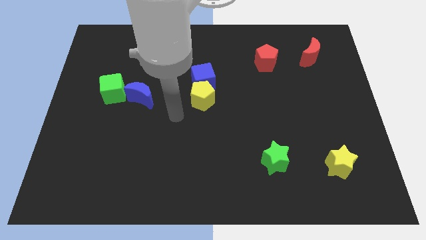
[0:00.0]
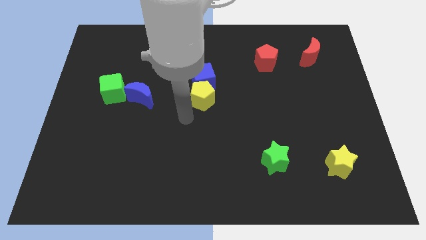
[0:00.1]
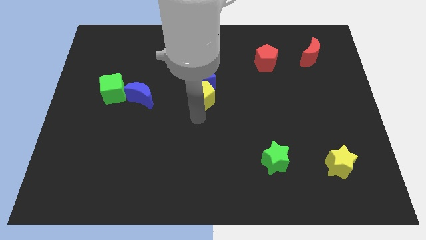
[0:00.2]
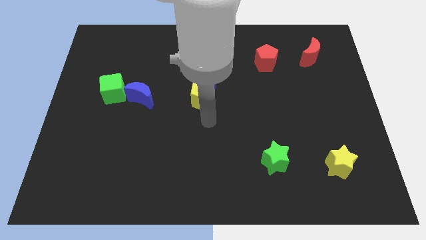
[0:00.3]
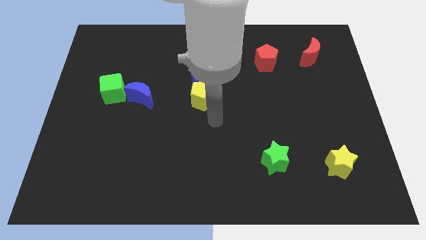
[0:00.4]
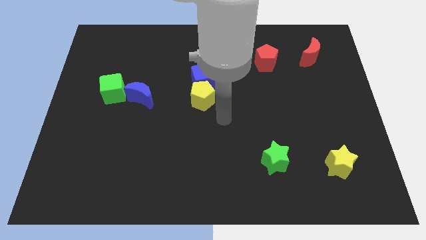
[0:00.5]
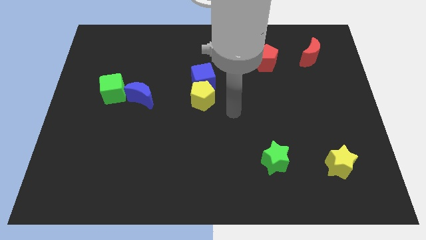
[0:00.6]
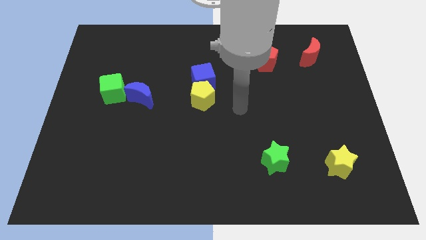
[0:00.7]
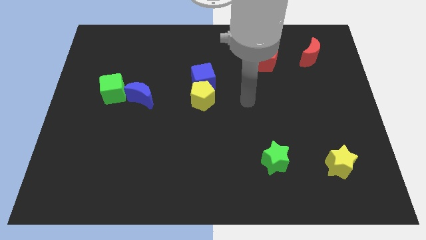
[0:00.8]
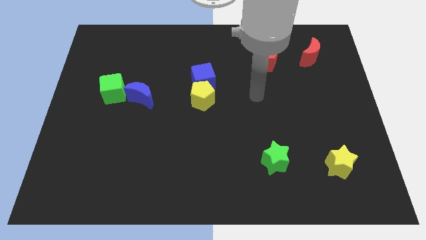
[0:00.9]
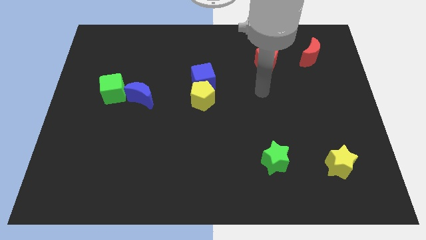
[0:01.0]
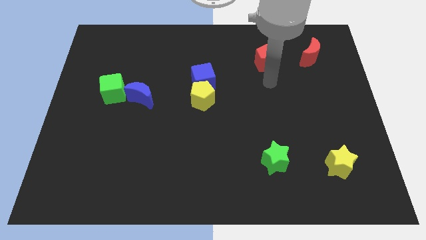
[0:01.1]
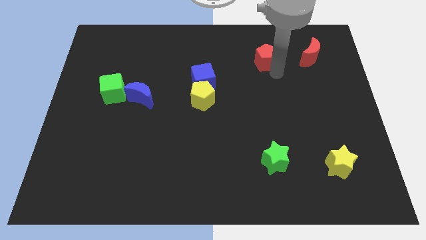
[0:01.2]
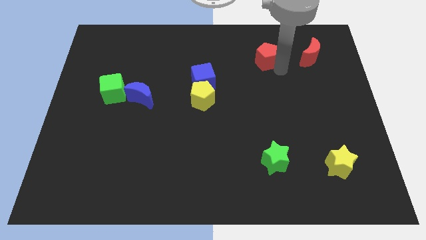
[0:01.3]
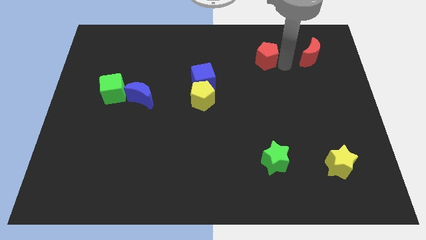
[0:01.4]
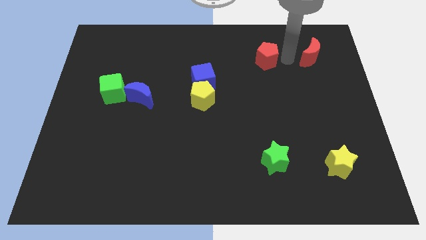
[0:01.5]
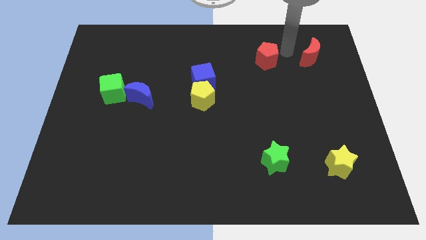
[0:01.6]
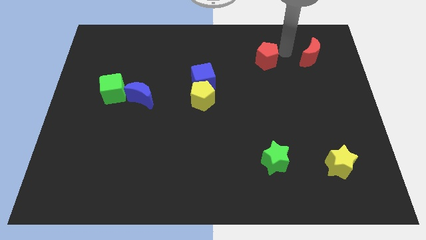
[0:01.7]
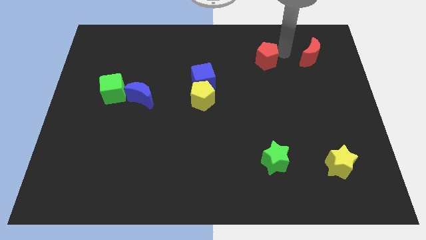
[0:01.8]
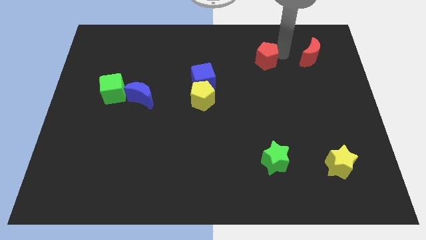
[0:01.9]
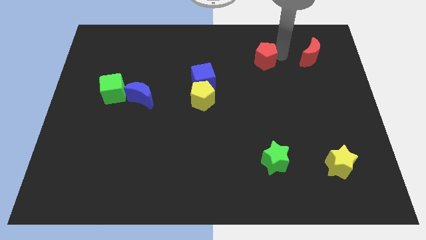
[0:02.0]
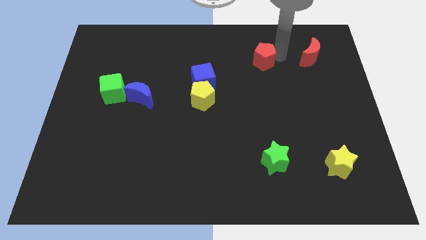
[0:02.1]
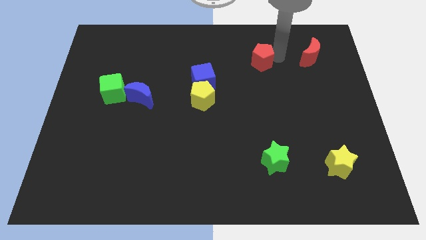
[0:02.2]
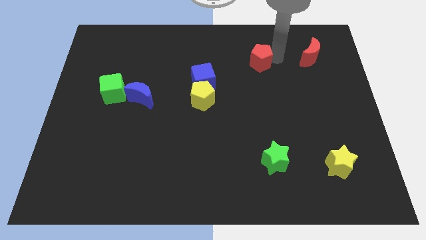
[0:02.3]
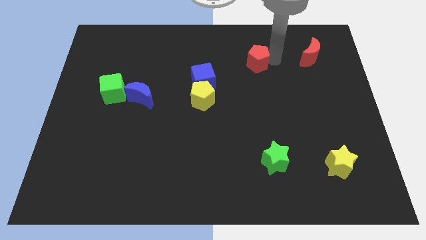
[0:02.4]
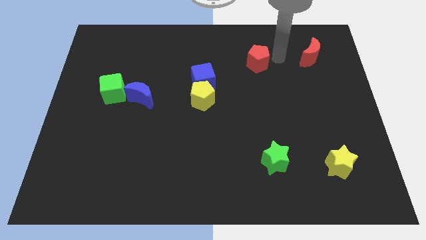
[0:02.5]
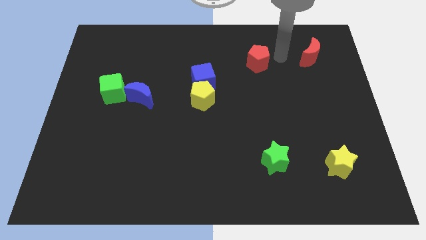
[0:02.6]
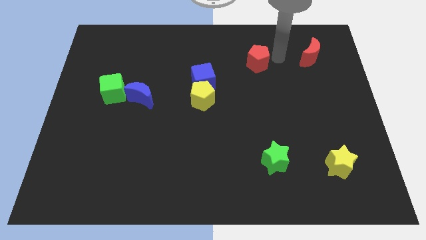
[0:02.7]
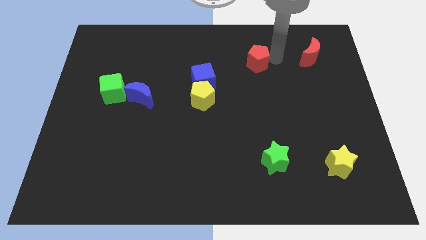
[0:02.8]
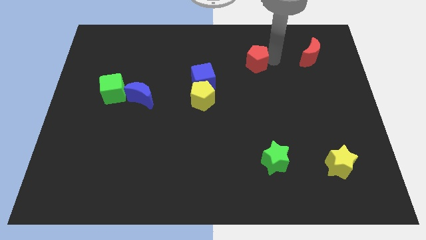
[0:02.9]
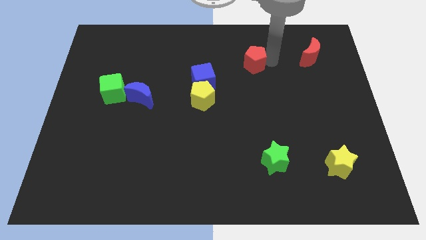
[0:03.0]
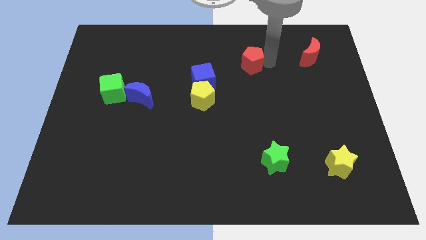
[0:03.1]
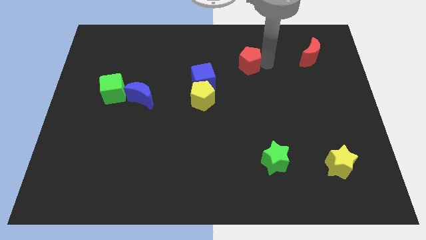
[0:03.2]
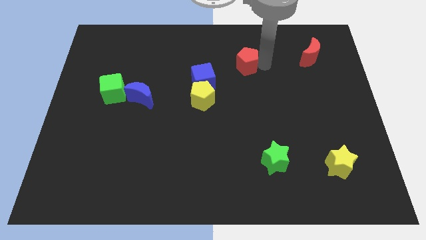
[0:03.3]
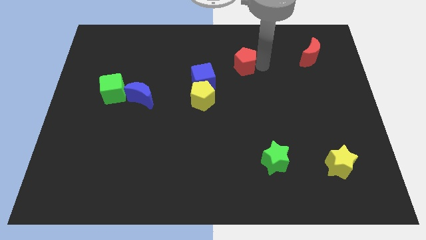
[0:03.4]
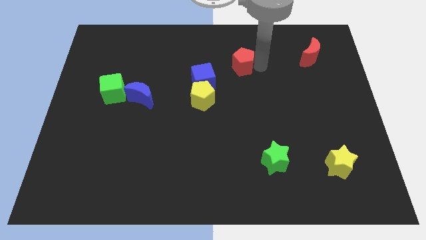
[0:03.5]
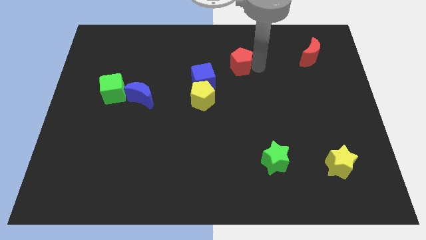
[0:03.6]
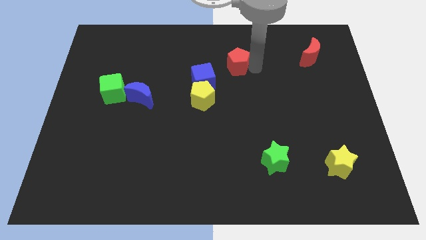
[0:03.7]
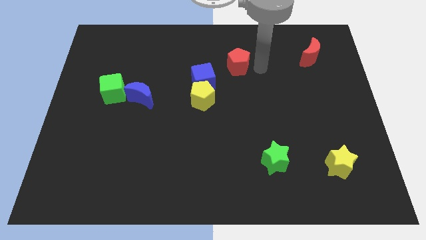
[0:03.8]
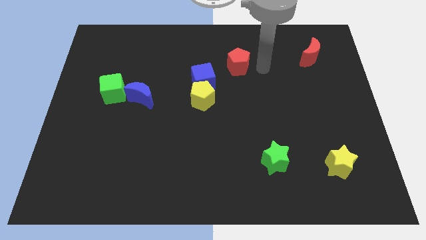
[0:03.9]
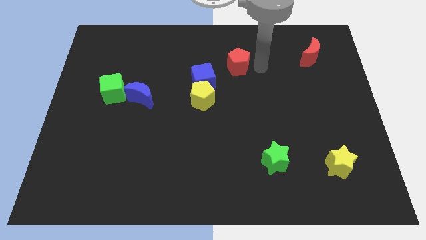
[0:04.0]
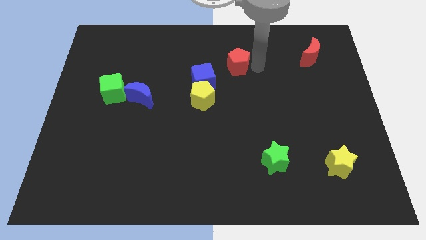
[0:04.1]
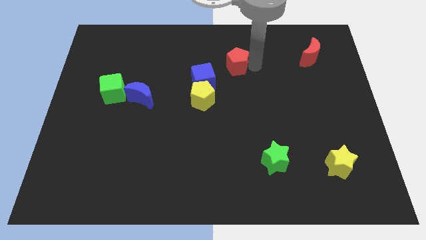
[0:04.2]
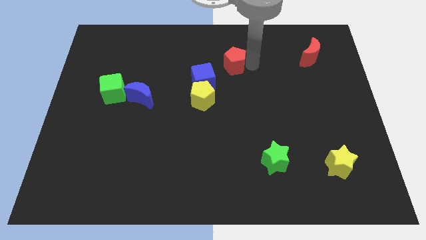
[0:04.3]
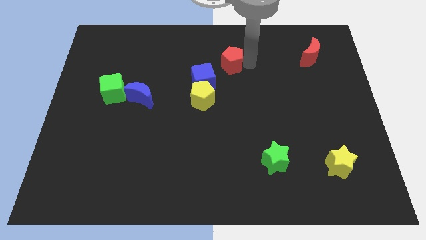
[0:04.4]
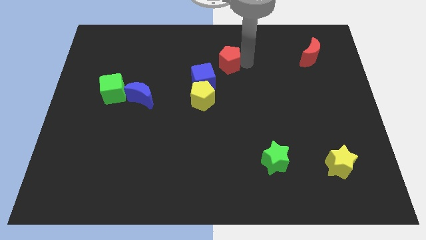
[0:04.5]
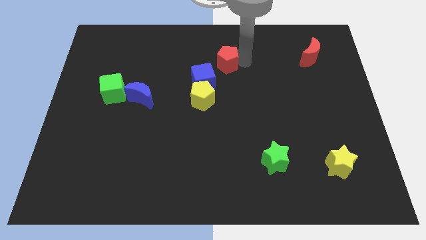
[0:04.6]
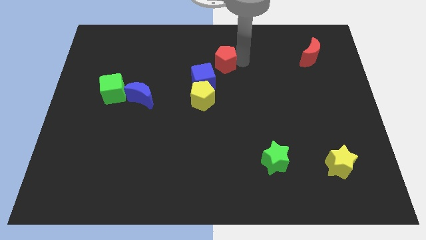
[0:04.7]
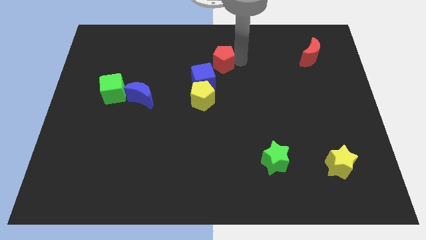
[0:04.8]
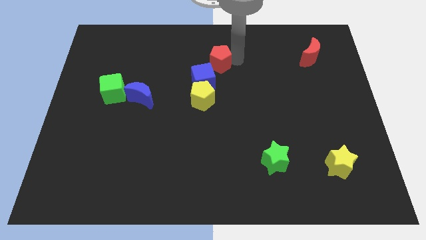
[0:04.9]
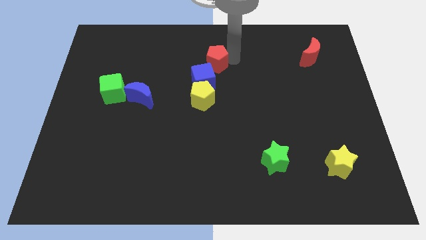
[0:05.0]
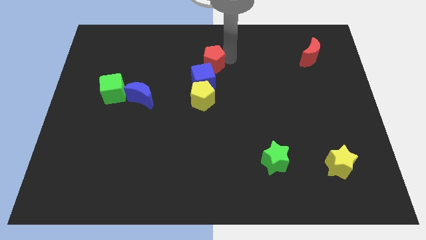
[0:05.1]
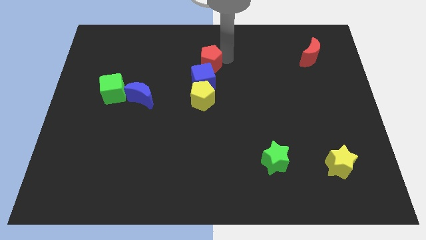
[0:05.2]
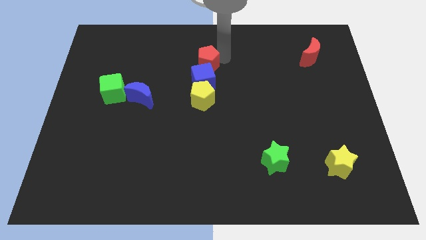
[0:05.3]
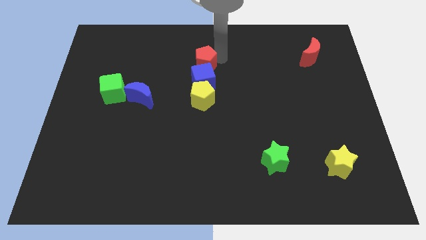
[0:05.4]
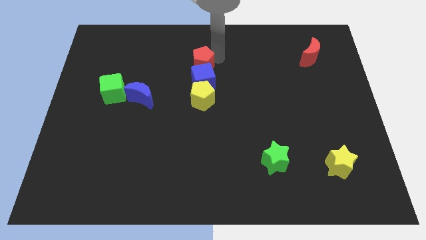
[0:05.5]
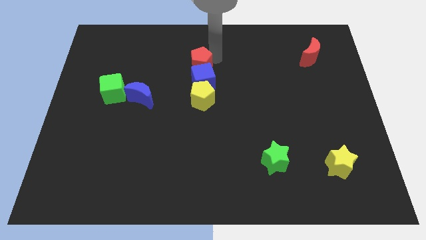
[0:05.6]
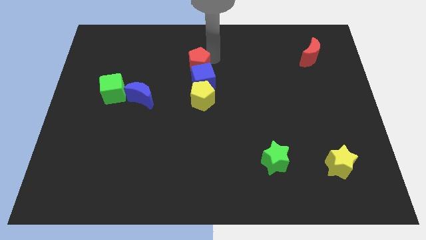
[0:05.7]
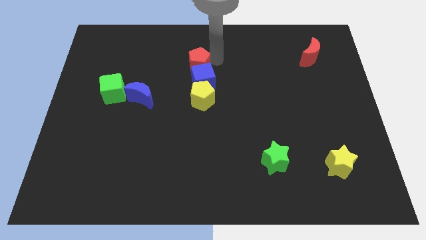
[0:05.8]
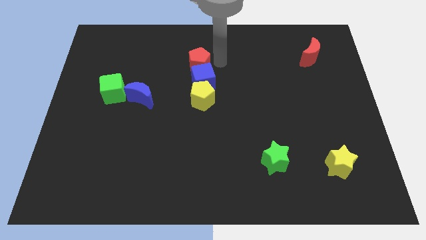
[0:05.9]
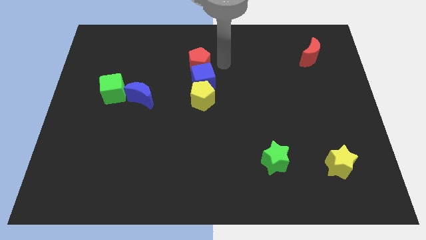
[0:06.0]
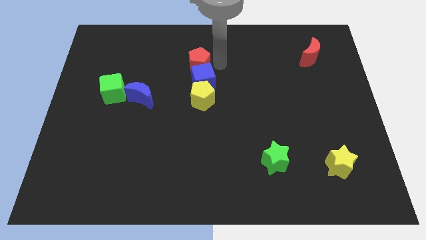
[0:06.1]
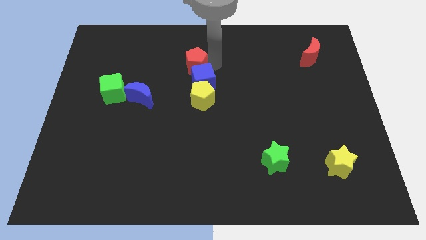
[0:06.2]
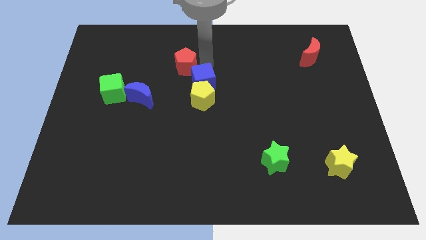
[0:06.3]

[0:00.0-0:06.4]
push the red pentagon left

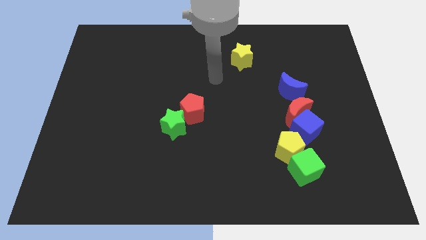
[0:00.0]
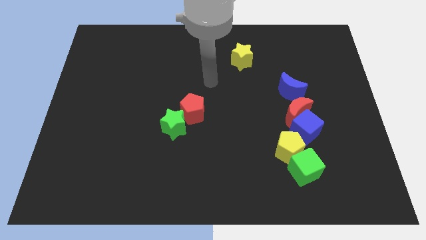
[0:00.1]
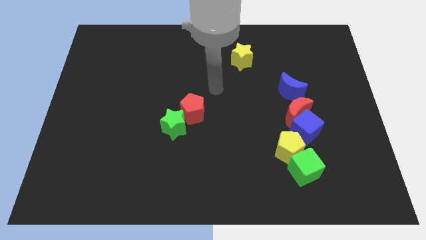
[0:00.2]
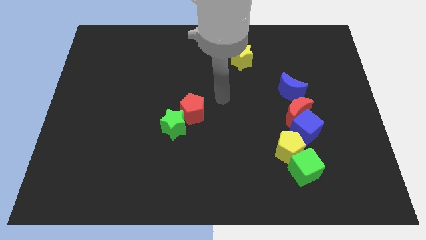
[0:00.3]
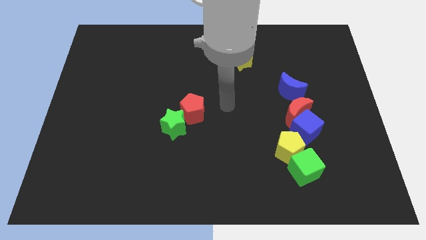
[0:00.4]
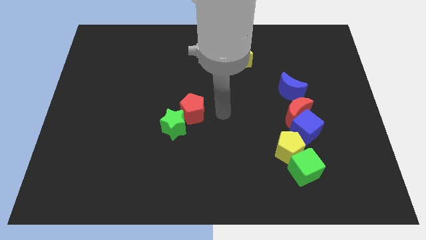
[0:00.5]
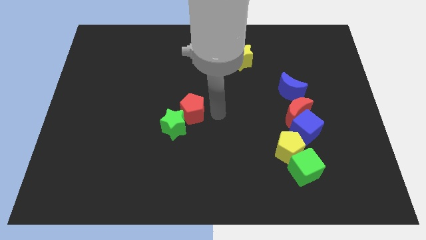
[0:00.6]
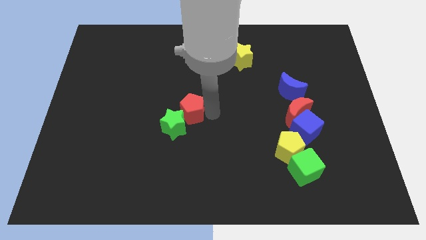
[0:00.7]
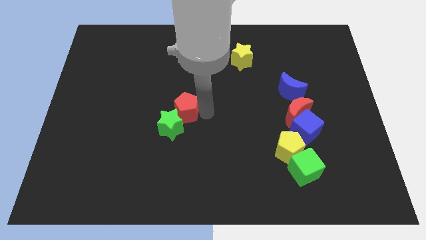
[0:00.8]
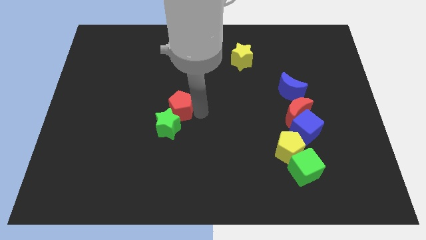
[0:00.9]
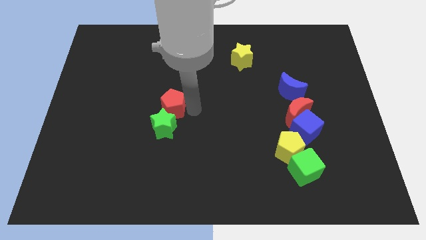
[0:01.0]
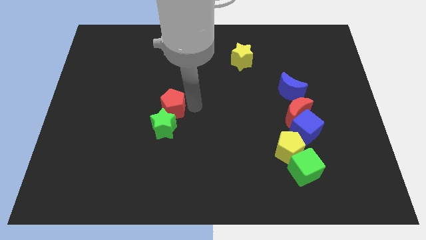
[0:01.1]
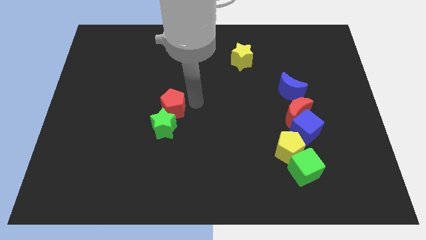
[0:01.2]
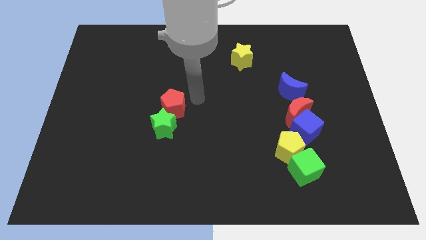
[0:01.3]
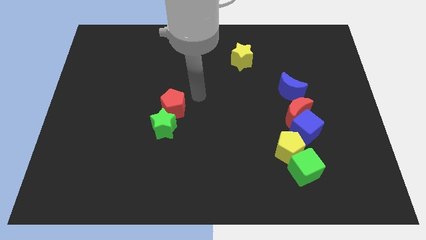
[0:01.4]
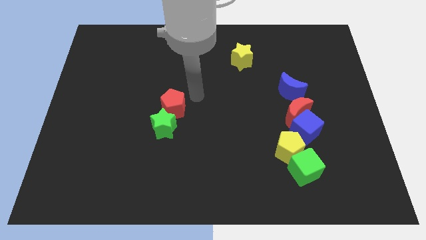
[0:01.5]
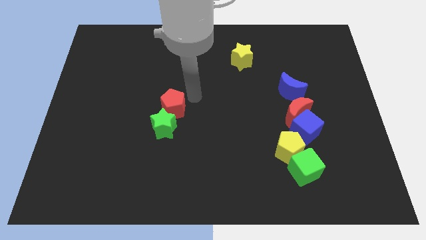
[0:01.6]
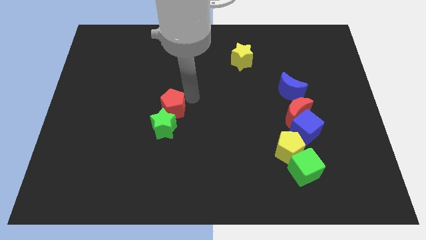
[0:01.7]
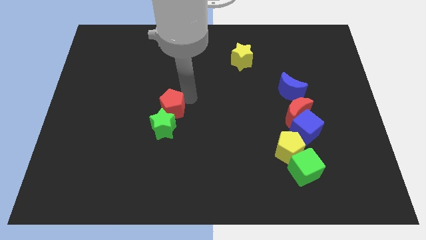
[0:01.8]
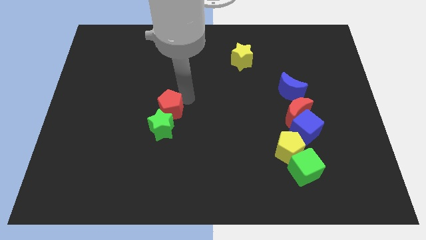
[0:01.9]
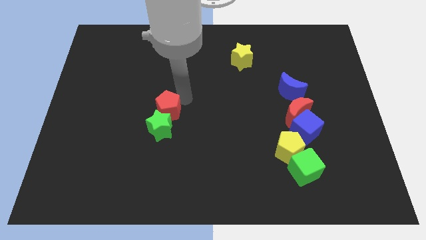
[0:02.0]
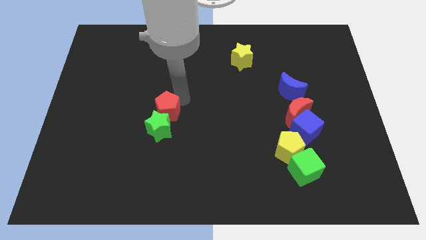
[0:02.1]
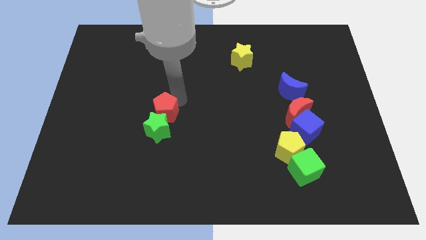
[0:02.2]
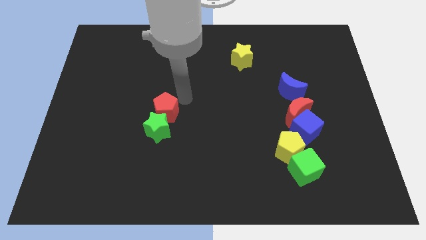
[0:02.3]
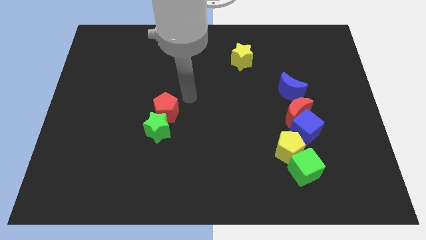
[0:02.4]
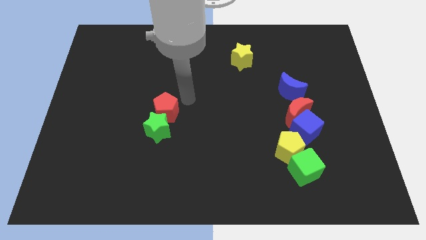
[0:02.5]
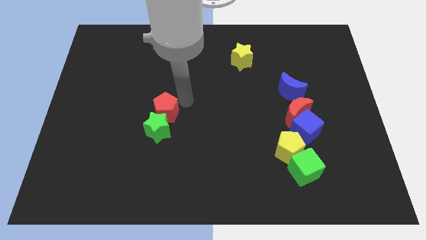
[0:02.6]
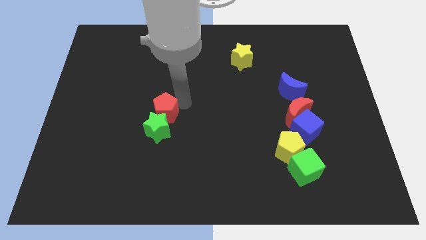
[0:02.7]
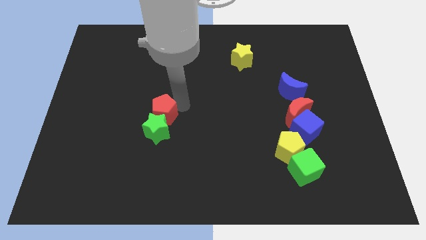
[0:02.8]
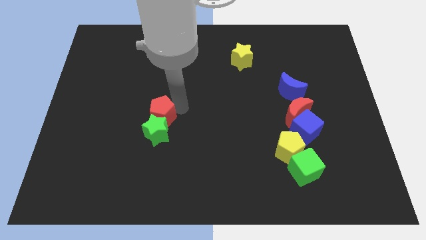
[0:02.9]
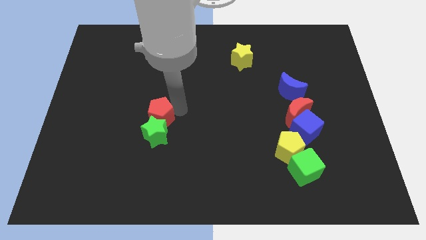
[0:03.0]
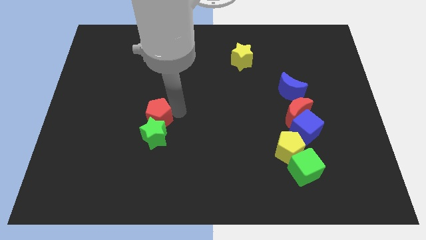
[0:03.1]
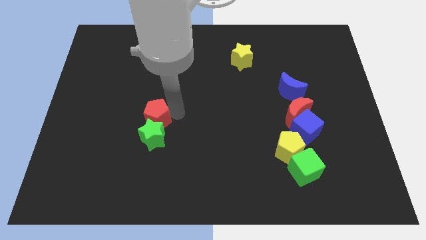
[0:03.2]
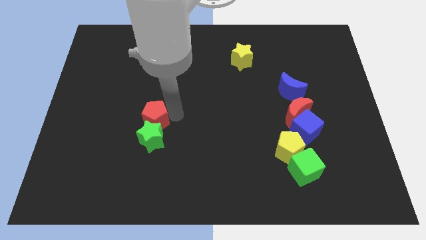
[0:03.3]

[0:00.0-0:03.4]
slide the red pentagon somewhat downwards and to the left diagonally
